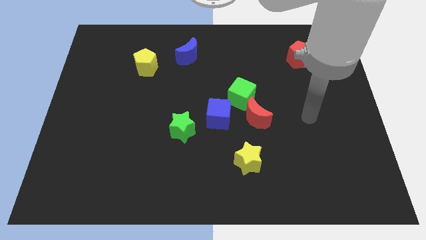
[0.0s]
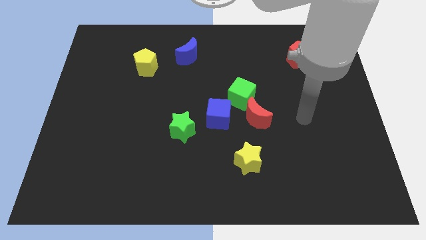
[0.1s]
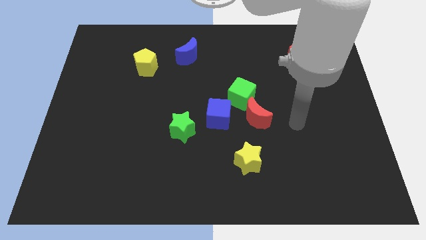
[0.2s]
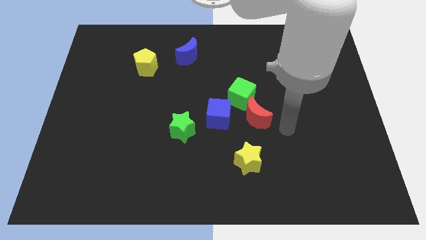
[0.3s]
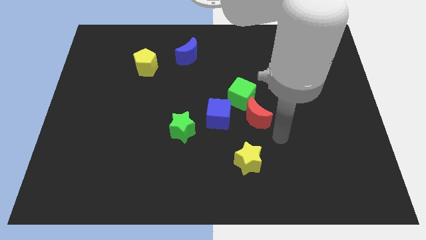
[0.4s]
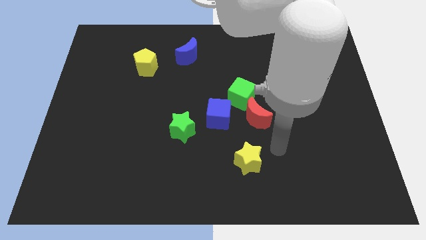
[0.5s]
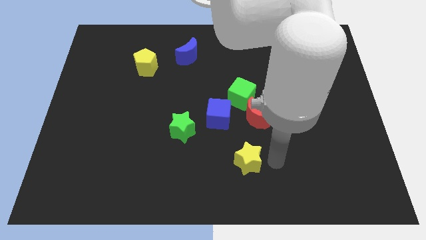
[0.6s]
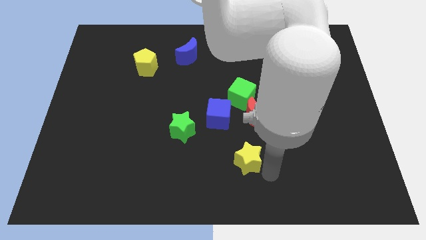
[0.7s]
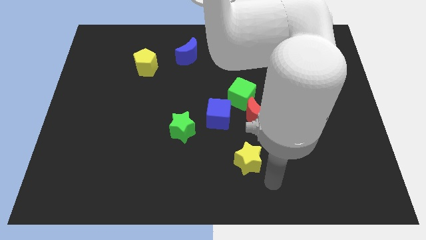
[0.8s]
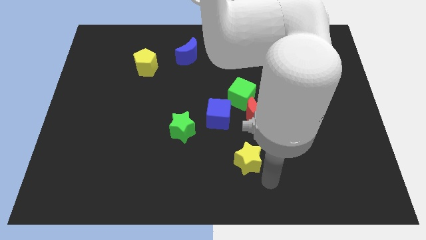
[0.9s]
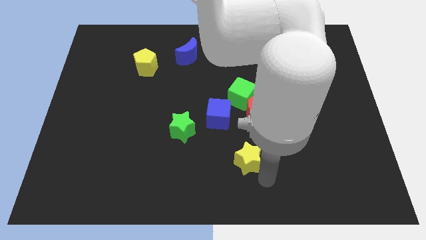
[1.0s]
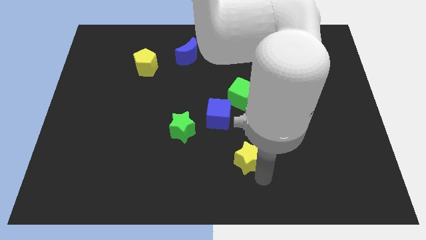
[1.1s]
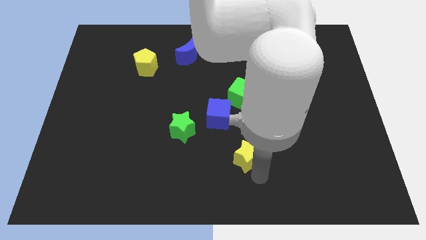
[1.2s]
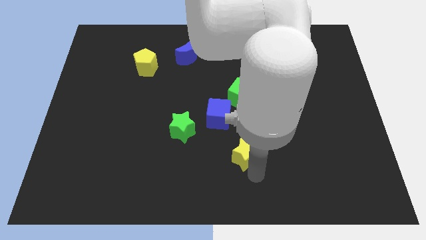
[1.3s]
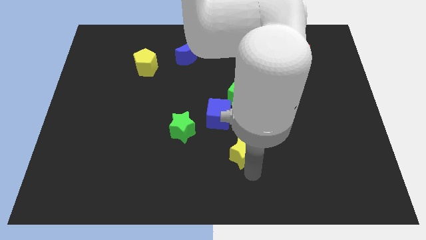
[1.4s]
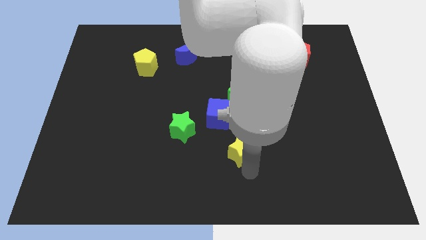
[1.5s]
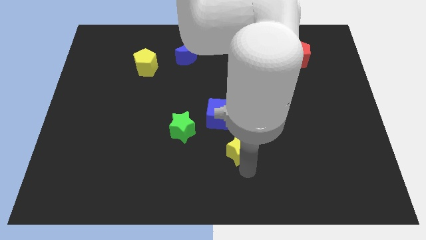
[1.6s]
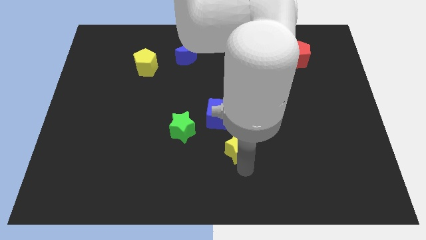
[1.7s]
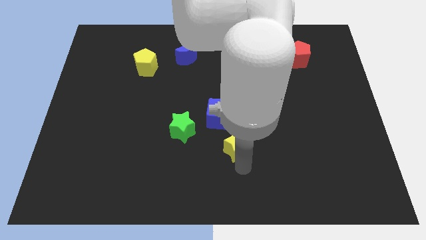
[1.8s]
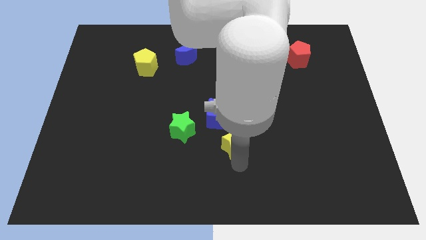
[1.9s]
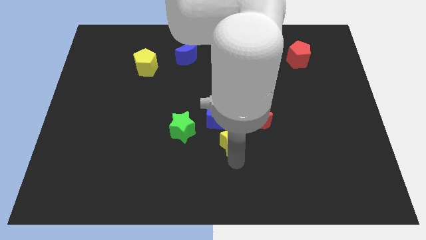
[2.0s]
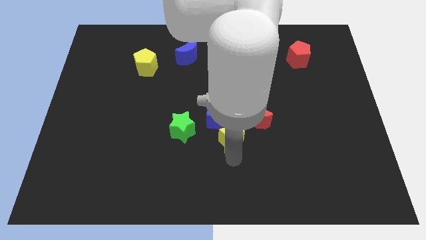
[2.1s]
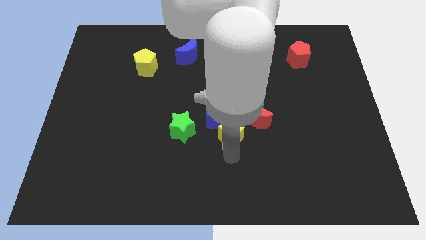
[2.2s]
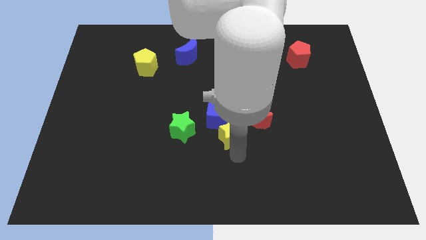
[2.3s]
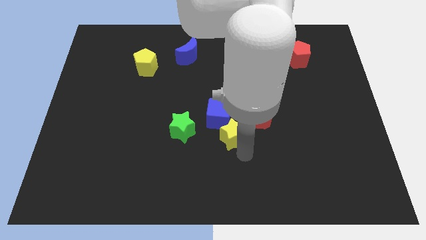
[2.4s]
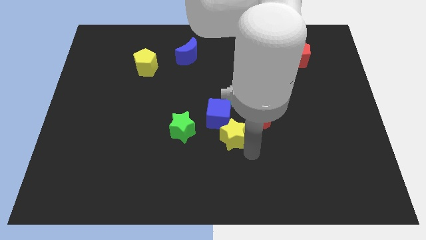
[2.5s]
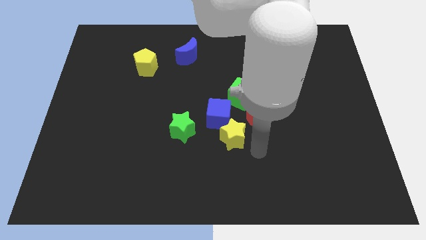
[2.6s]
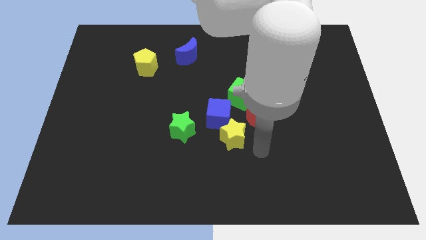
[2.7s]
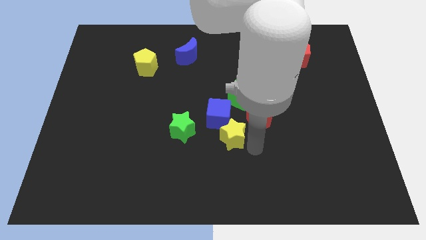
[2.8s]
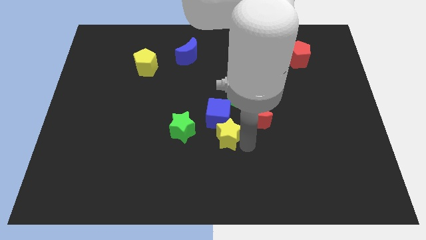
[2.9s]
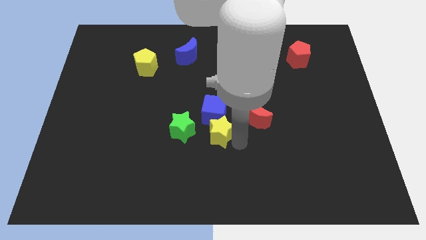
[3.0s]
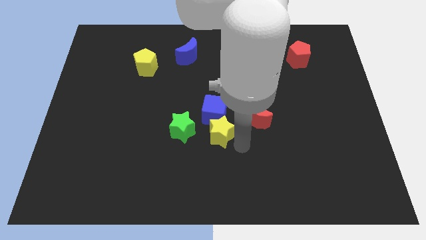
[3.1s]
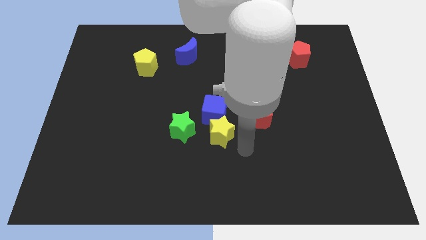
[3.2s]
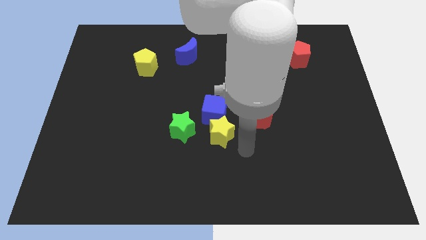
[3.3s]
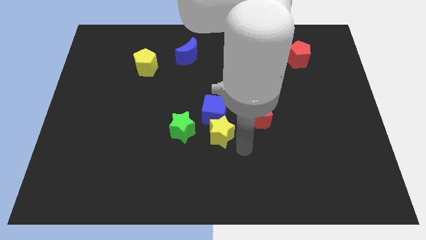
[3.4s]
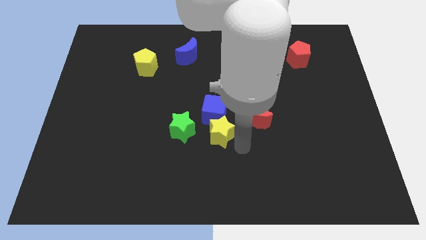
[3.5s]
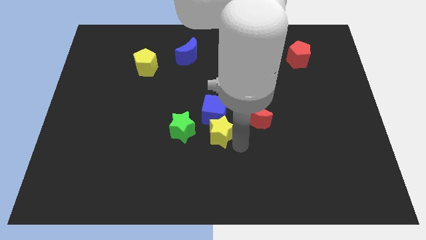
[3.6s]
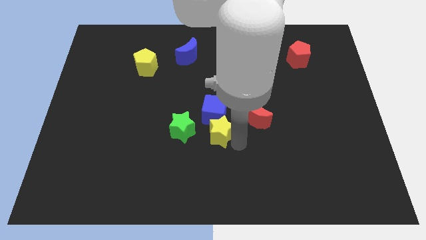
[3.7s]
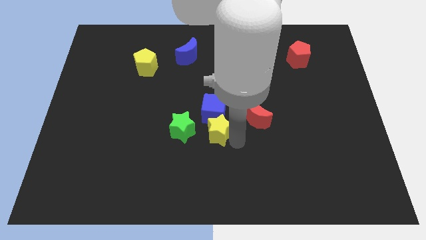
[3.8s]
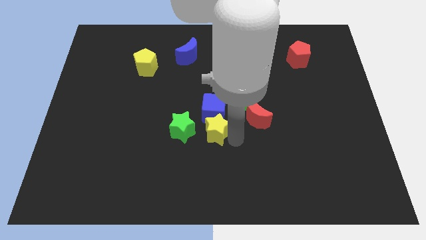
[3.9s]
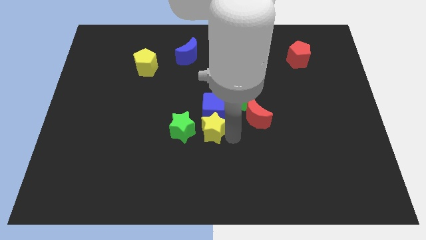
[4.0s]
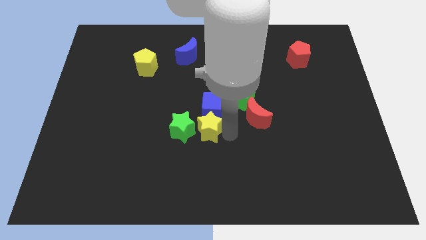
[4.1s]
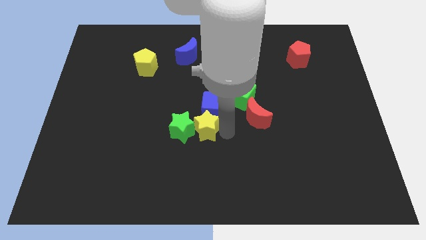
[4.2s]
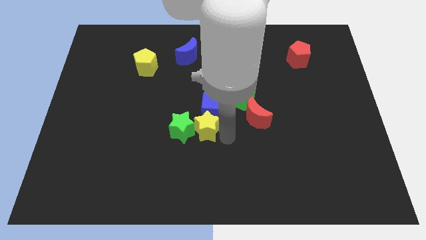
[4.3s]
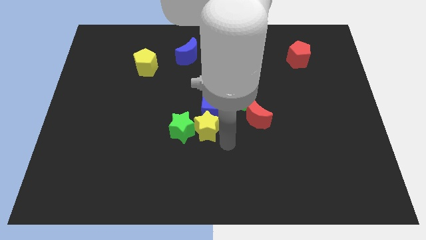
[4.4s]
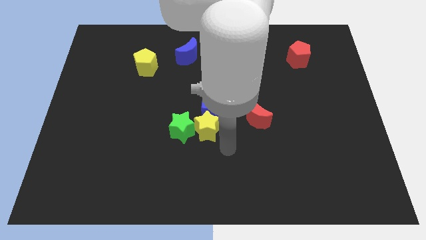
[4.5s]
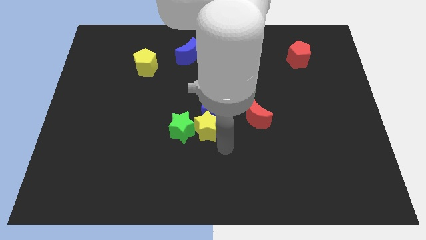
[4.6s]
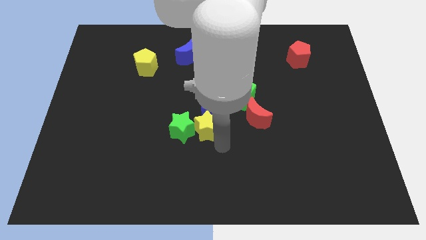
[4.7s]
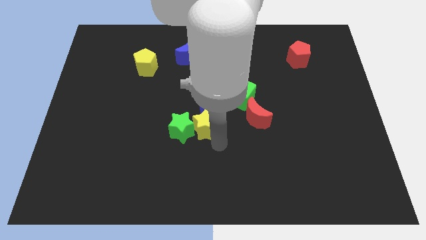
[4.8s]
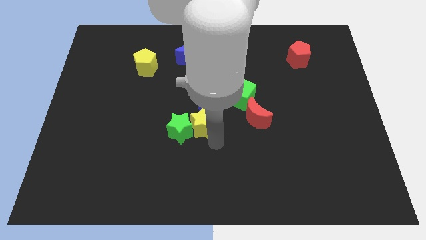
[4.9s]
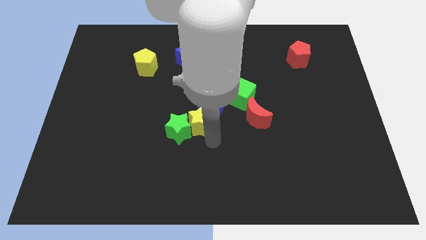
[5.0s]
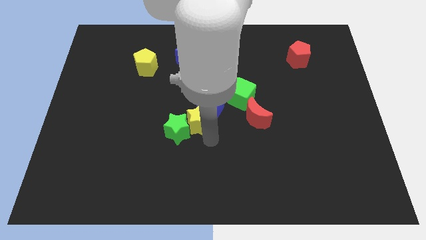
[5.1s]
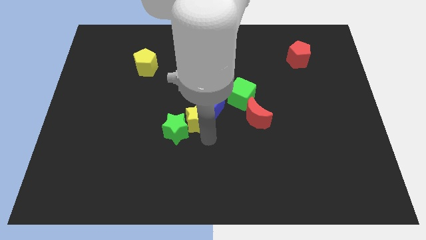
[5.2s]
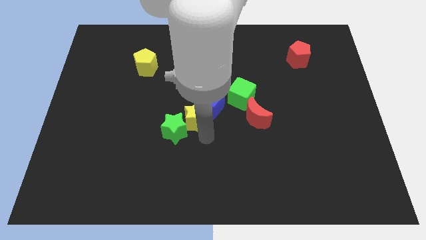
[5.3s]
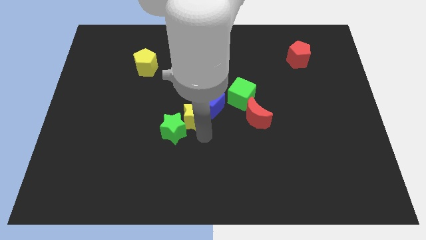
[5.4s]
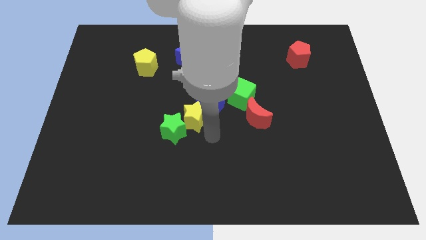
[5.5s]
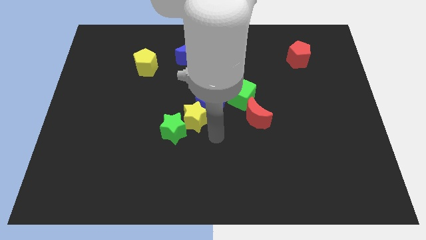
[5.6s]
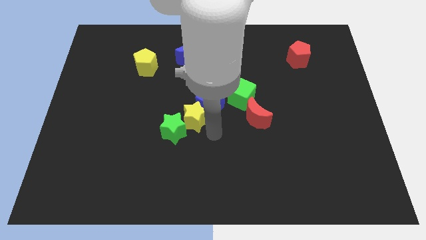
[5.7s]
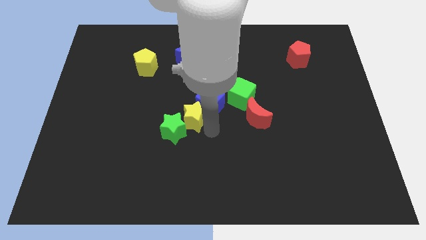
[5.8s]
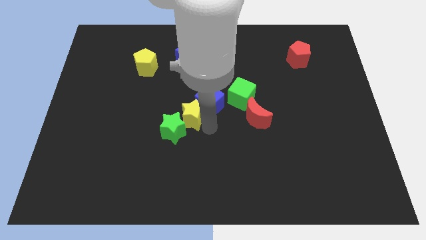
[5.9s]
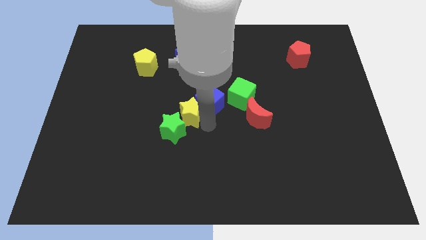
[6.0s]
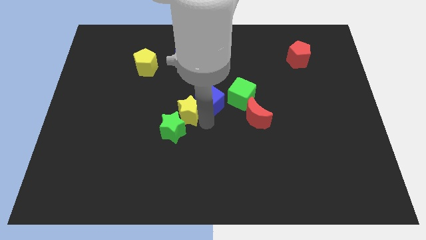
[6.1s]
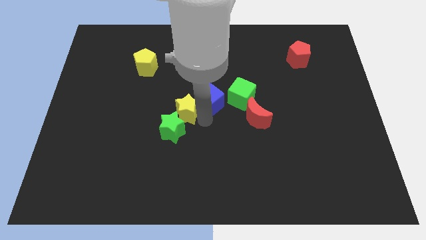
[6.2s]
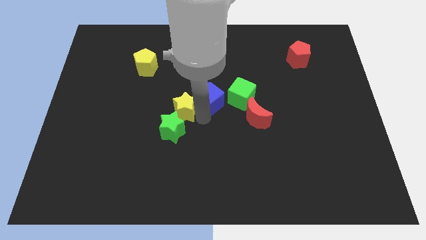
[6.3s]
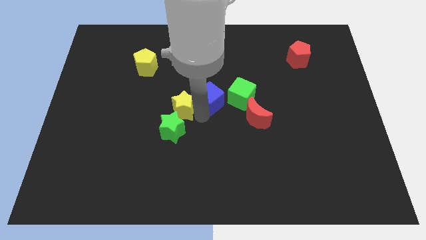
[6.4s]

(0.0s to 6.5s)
move the yellow star up and then to the left

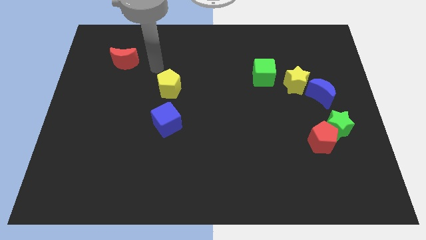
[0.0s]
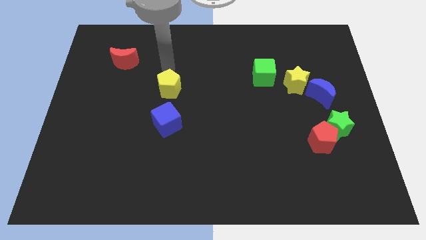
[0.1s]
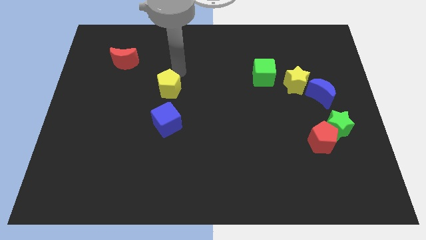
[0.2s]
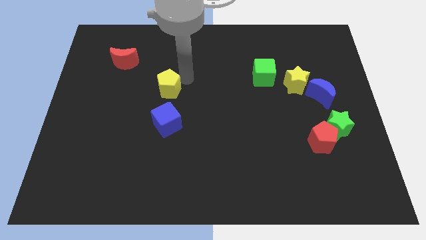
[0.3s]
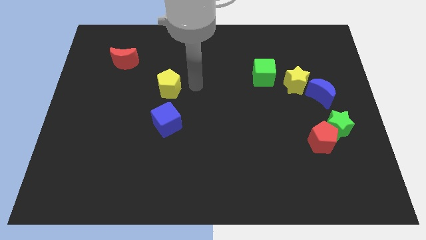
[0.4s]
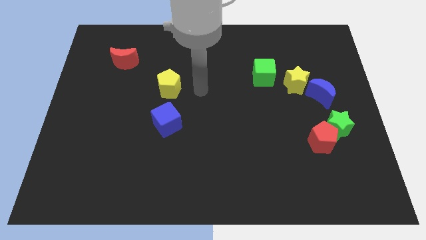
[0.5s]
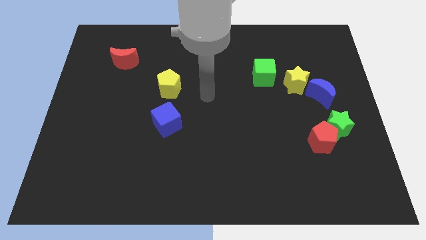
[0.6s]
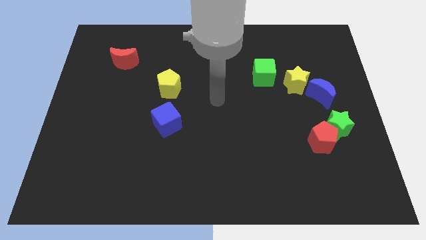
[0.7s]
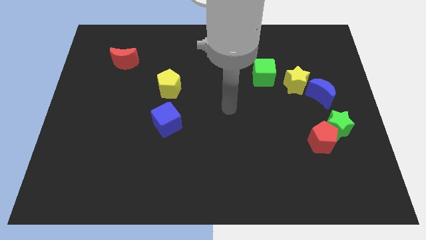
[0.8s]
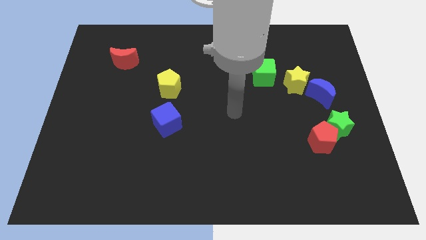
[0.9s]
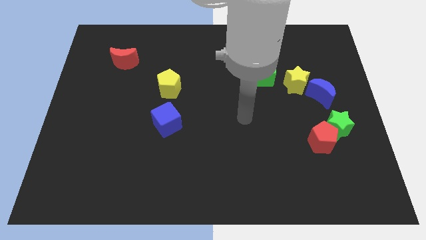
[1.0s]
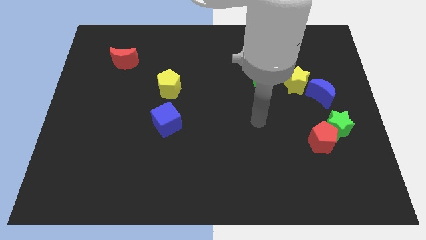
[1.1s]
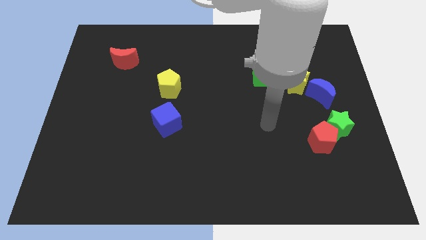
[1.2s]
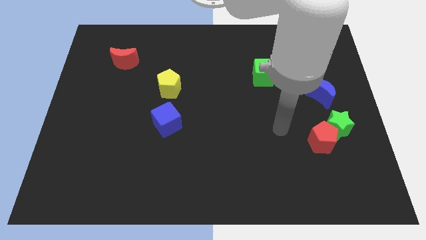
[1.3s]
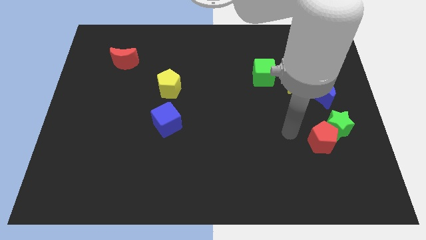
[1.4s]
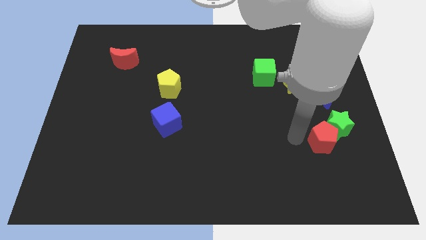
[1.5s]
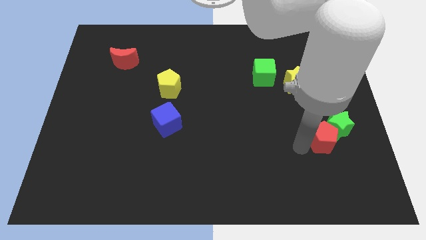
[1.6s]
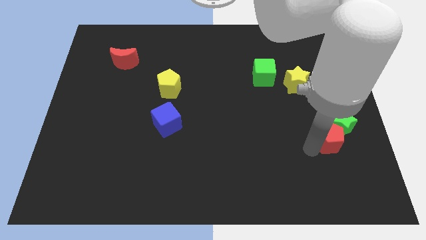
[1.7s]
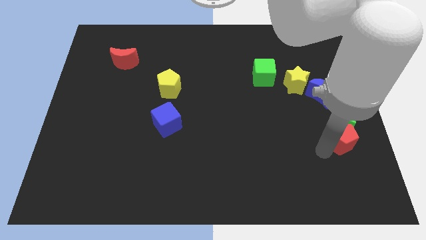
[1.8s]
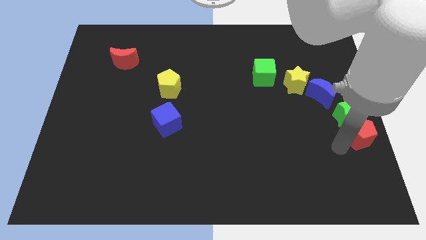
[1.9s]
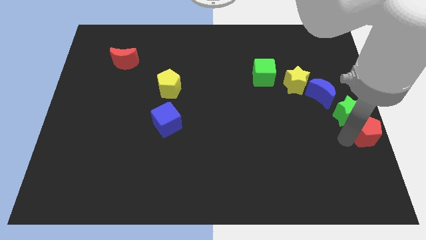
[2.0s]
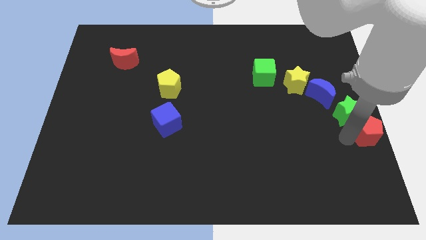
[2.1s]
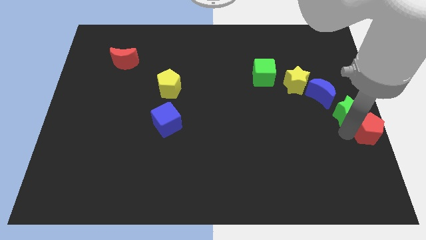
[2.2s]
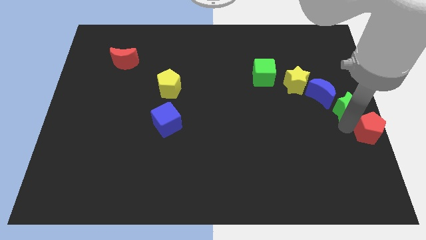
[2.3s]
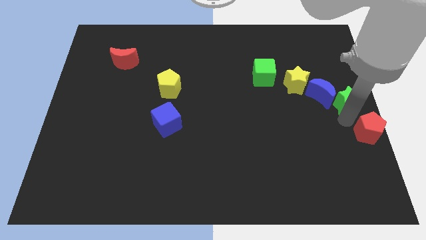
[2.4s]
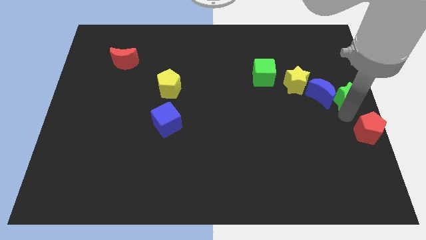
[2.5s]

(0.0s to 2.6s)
slide the green star up slightly
